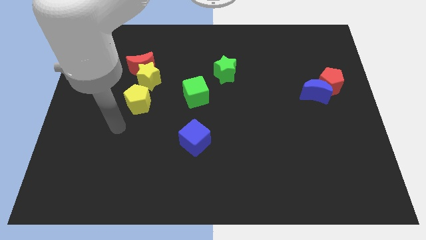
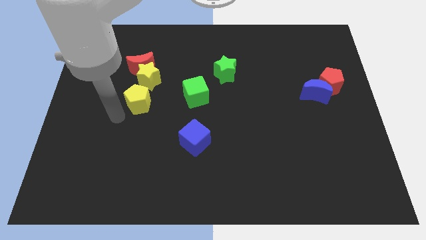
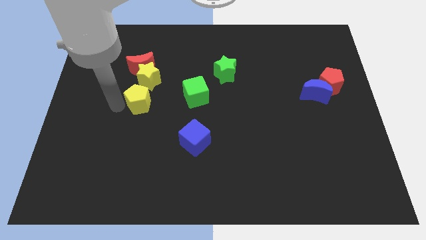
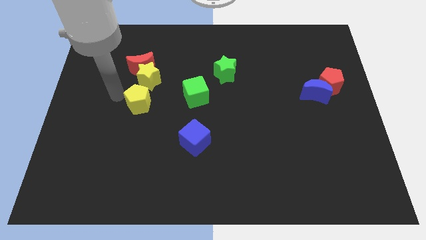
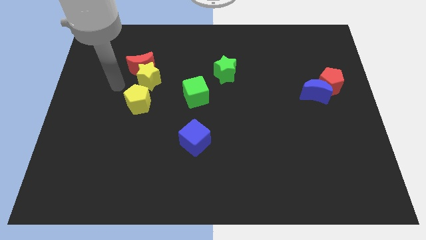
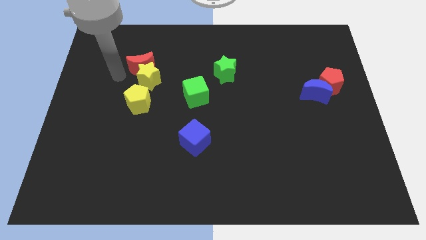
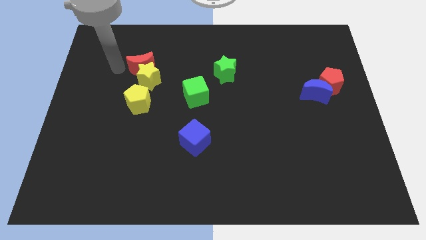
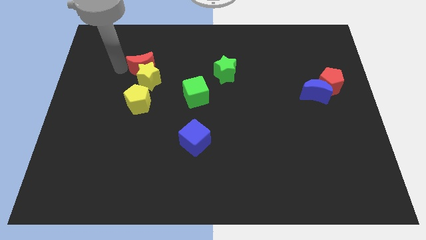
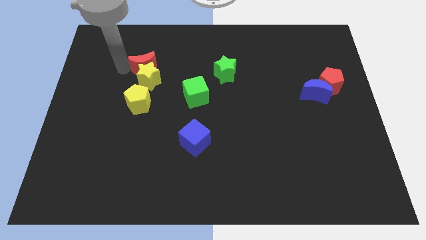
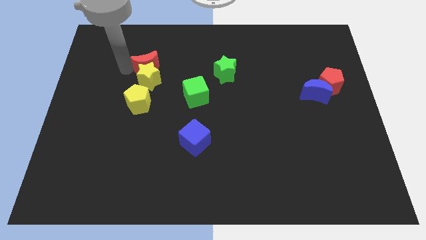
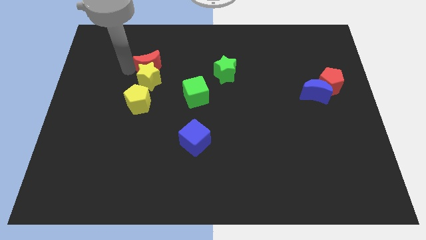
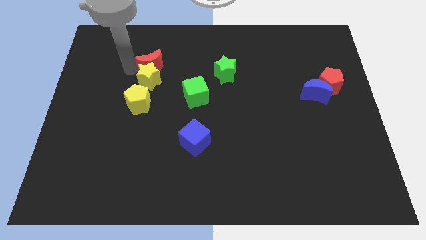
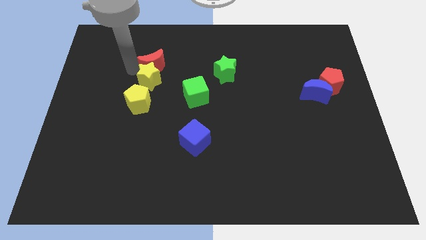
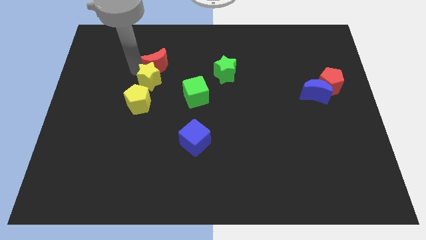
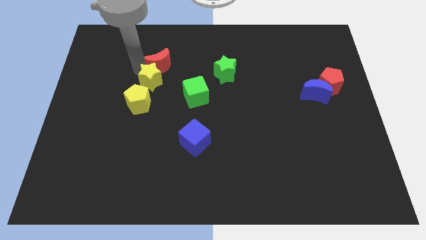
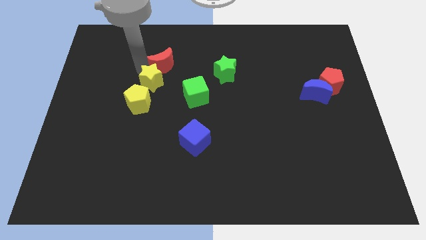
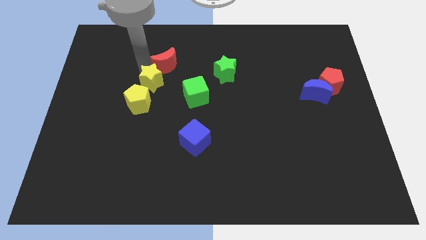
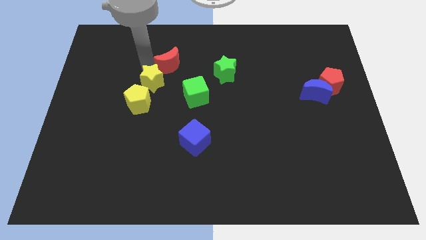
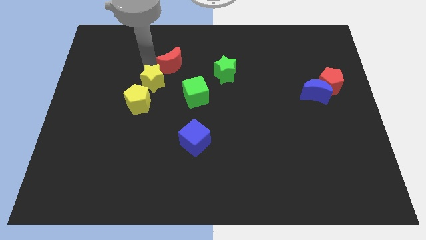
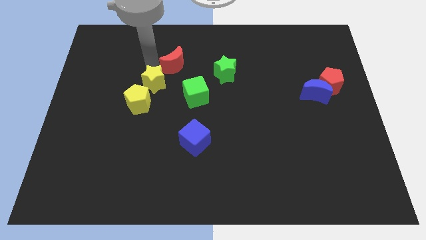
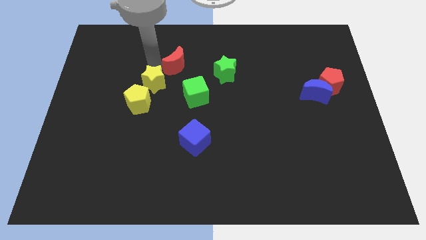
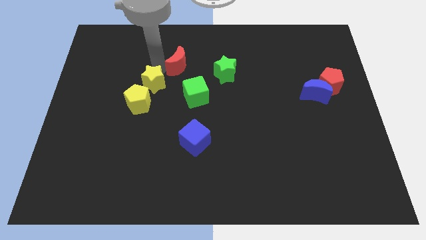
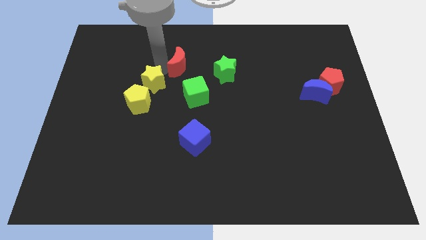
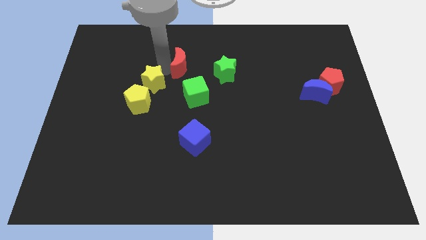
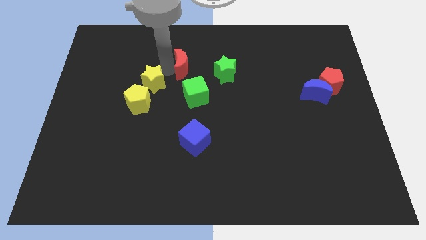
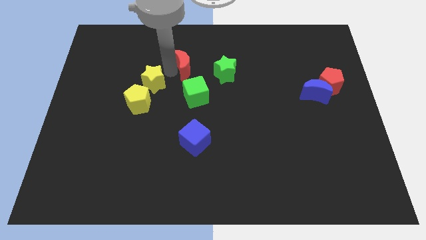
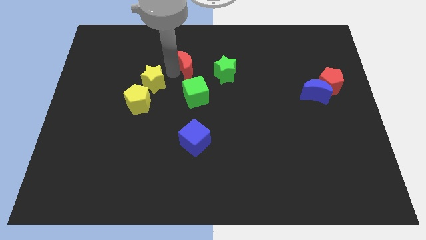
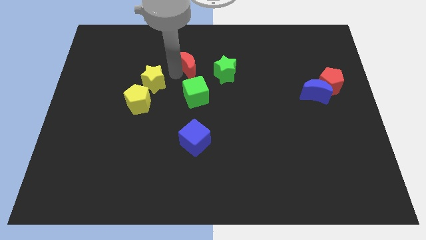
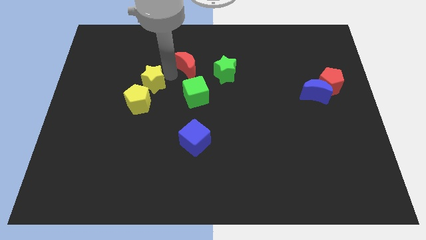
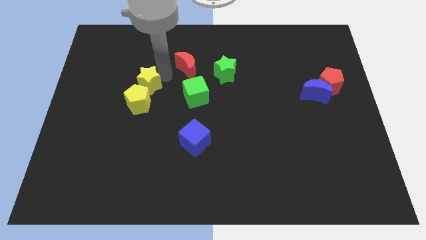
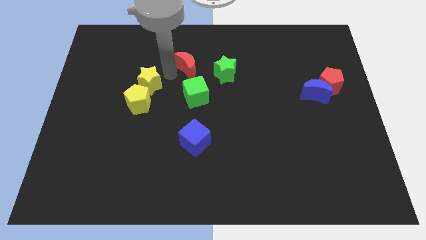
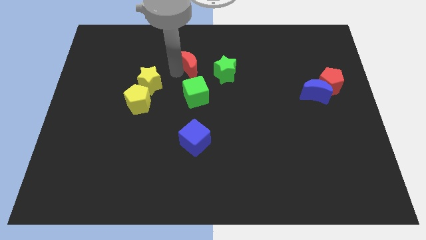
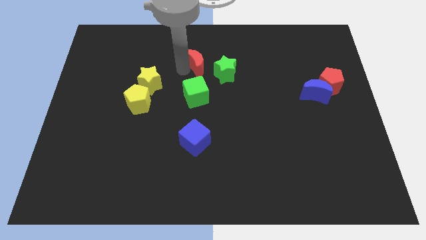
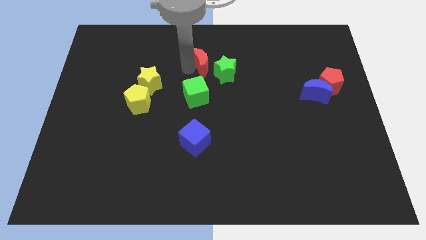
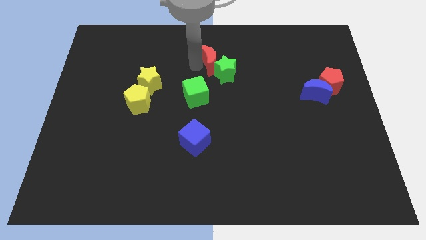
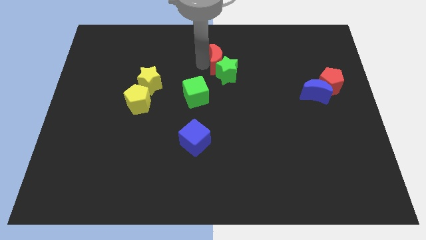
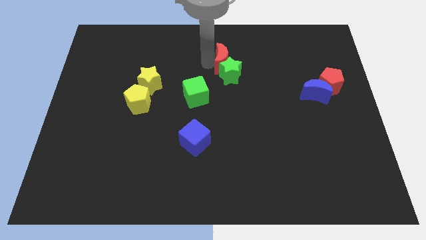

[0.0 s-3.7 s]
slide the red moon to the right

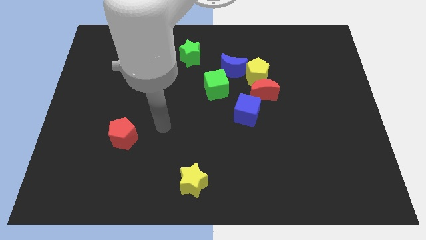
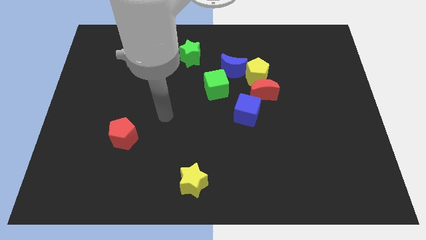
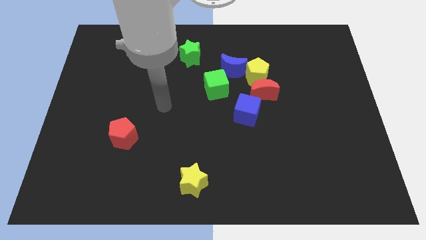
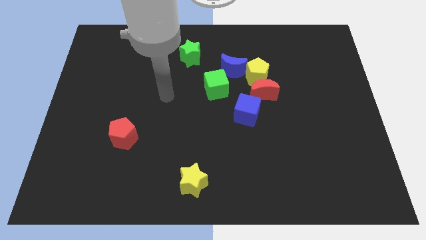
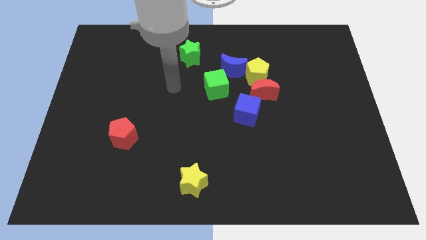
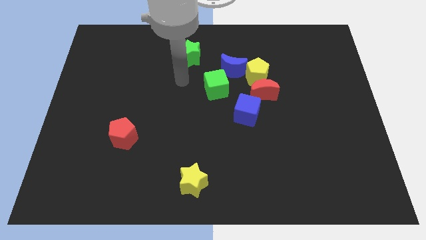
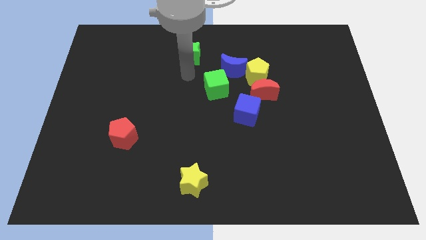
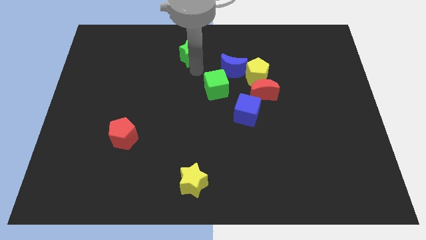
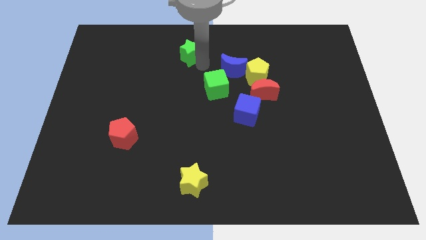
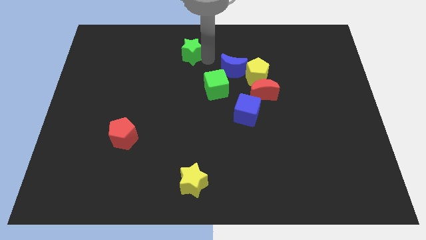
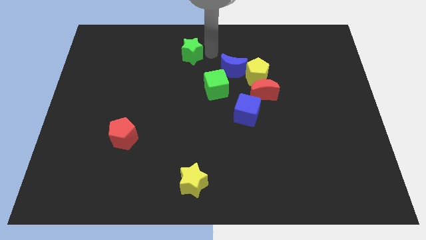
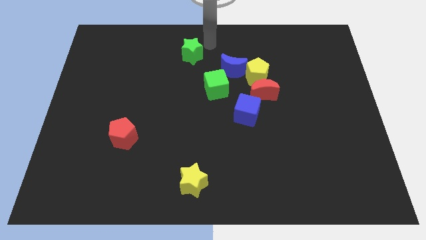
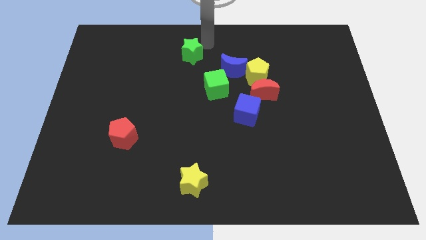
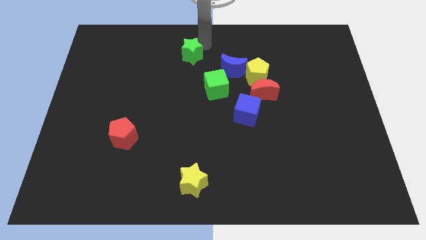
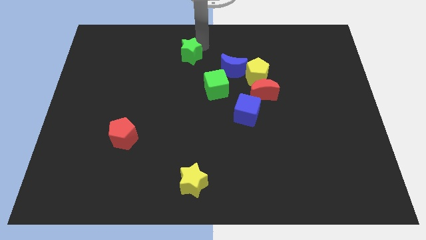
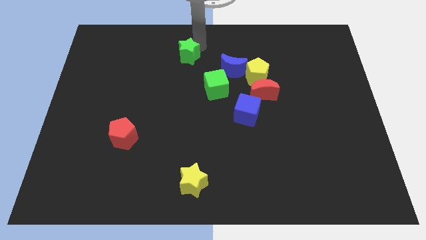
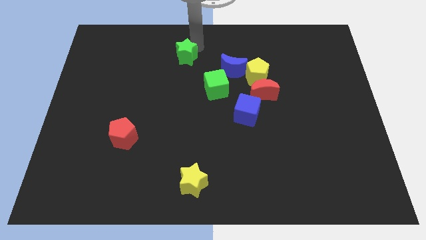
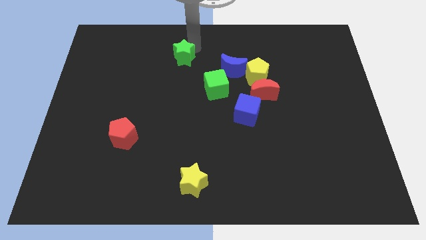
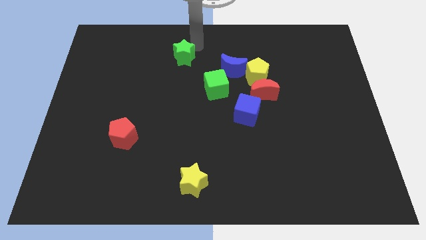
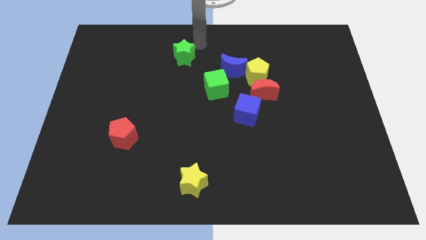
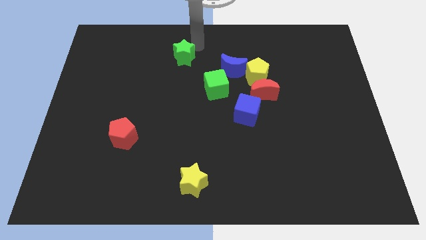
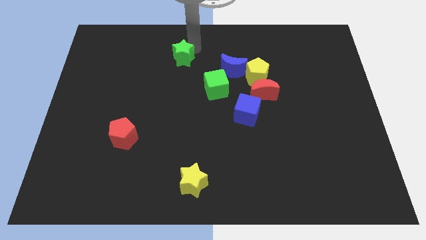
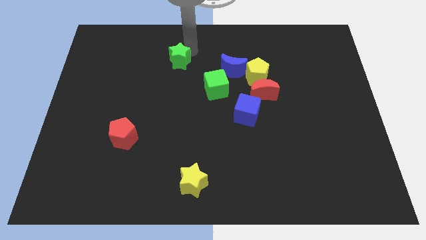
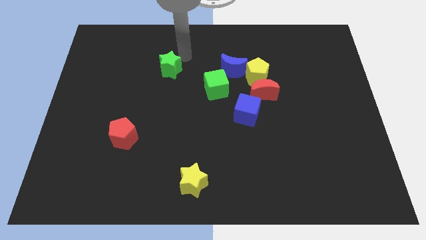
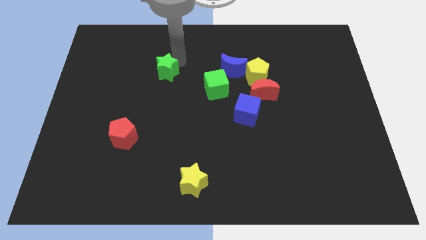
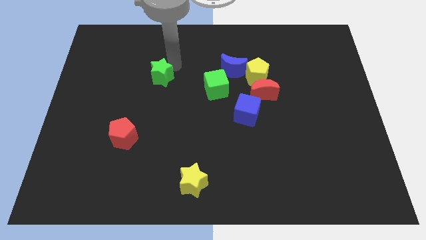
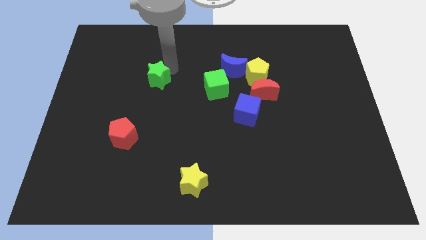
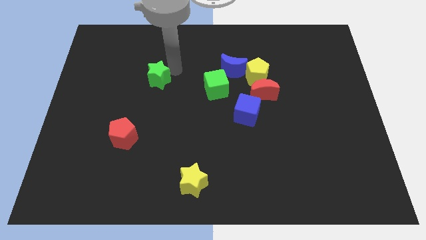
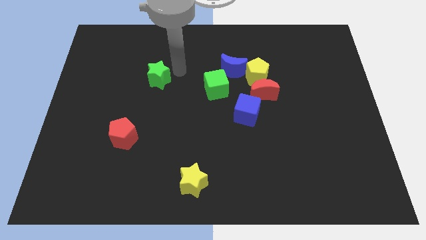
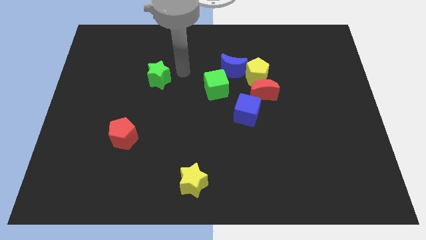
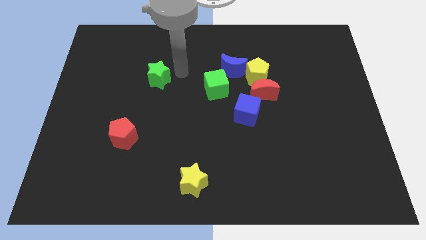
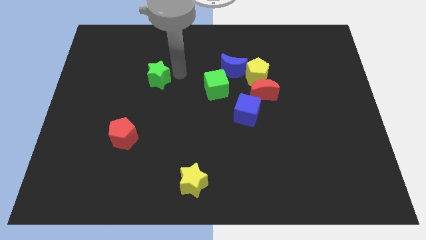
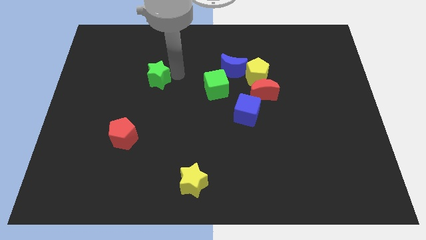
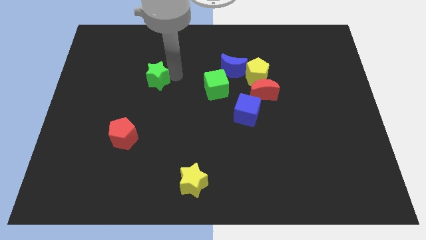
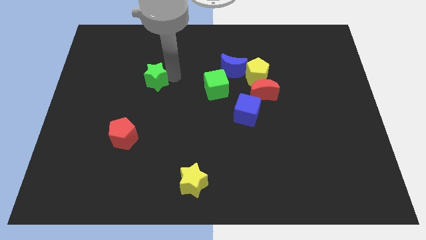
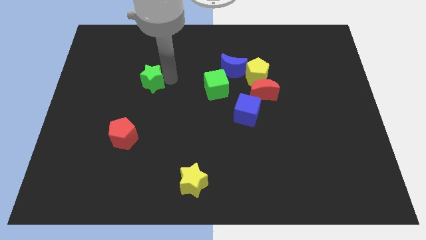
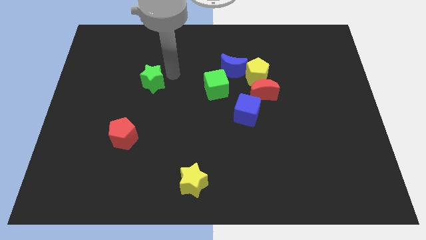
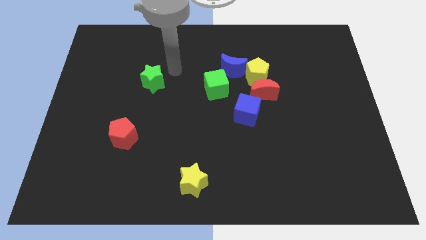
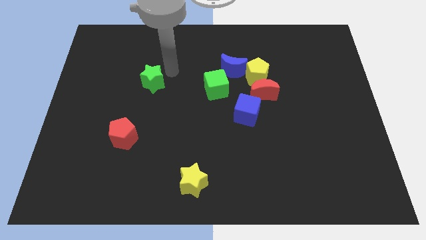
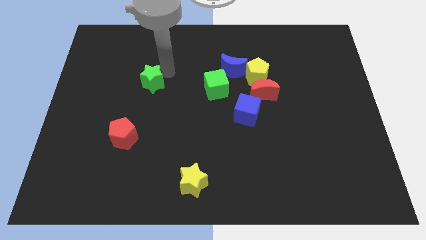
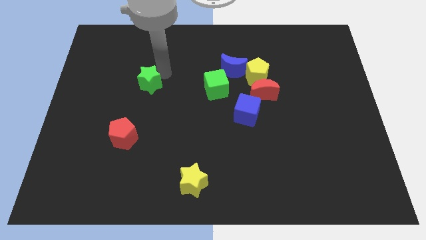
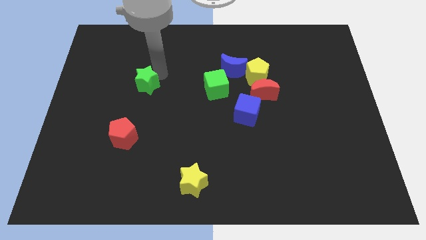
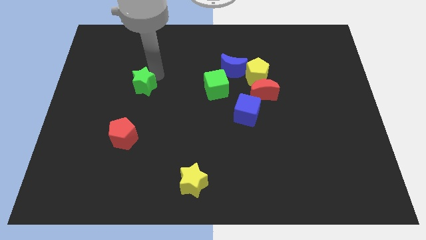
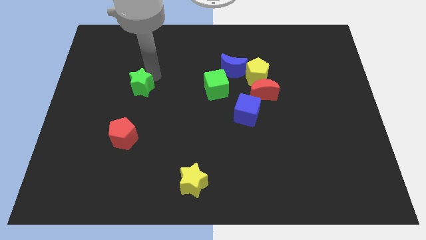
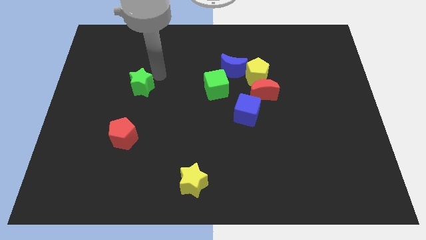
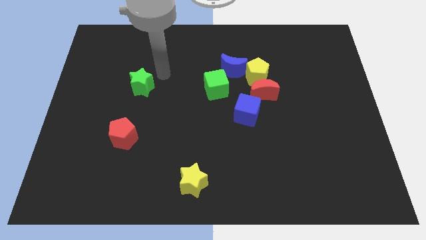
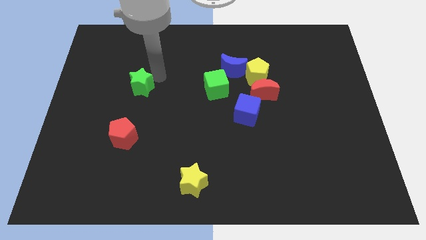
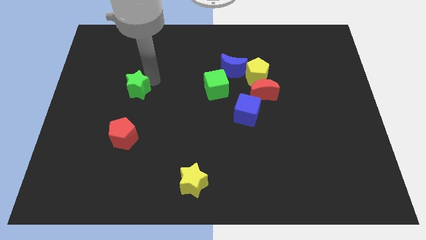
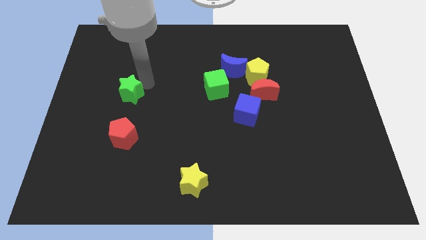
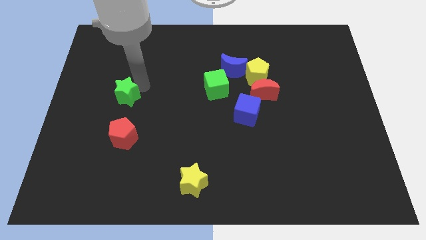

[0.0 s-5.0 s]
push the green star down and left
